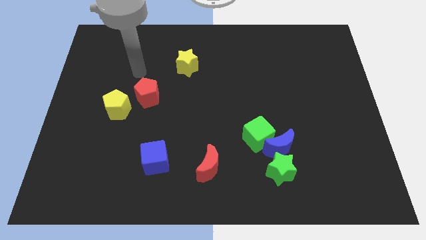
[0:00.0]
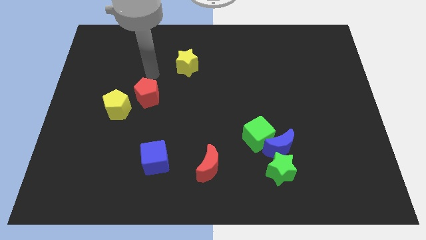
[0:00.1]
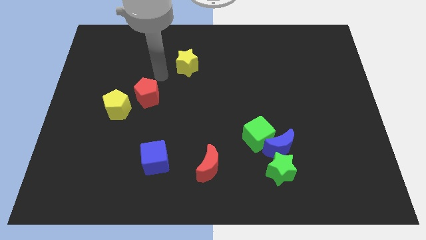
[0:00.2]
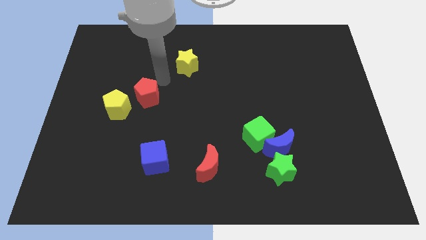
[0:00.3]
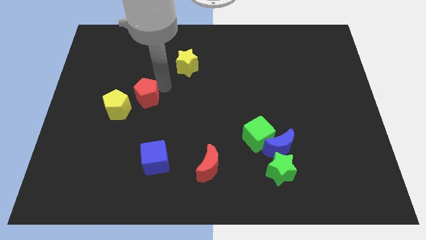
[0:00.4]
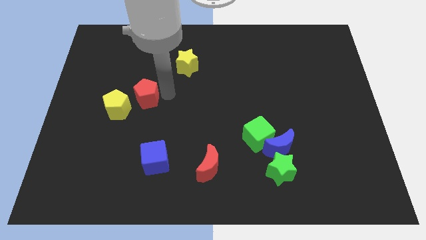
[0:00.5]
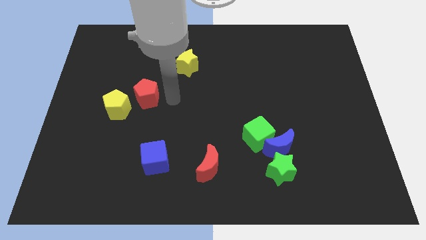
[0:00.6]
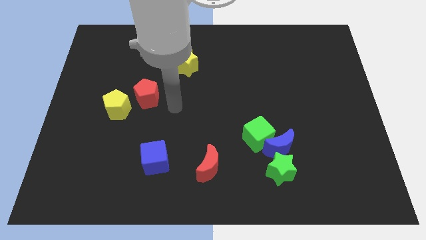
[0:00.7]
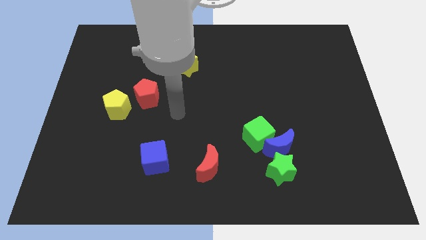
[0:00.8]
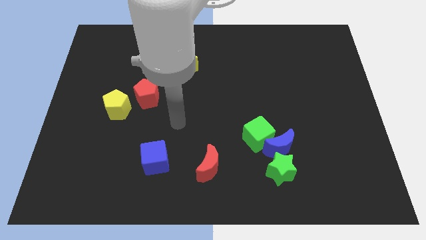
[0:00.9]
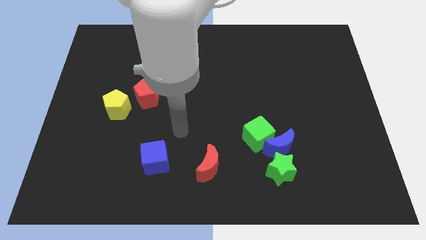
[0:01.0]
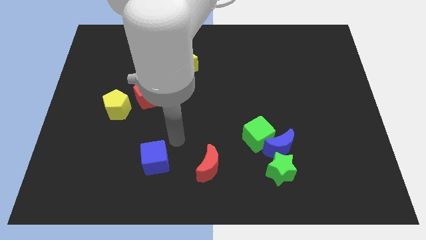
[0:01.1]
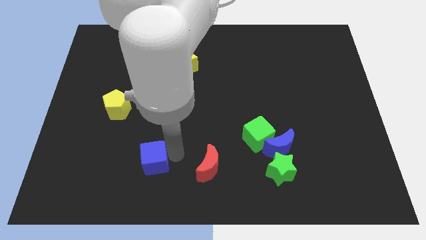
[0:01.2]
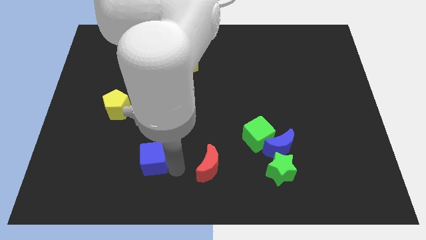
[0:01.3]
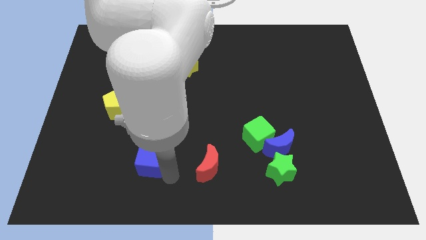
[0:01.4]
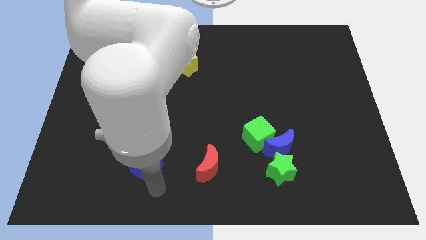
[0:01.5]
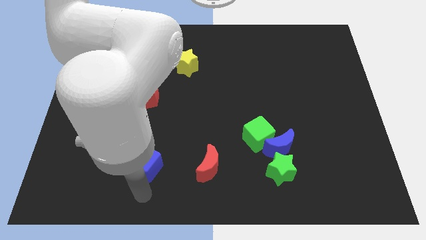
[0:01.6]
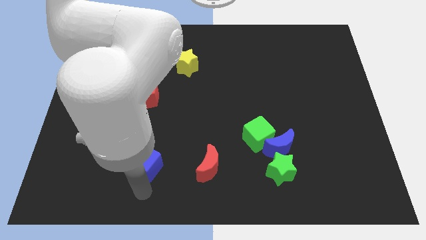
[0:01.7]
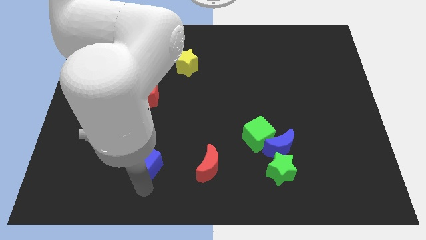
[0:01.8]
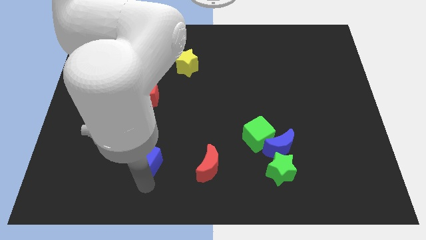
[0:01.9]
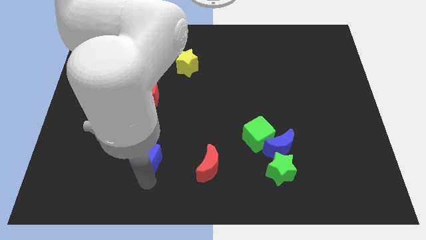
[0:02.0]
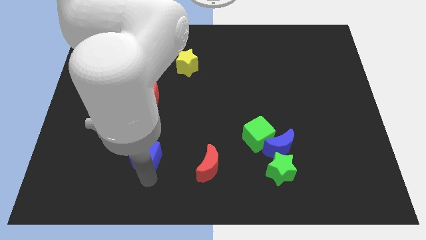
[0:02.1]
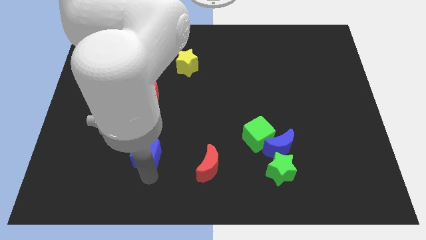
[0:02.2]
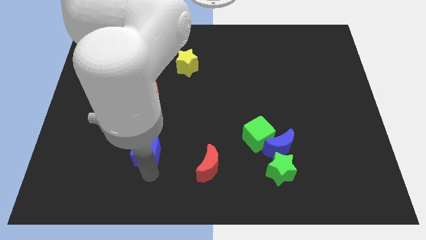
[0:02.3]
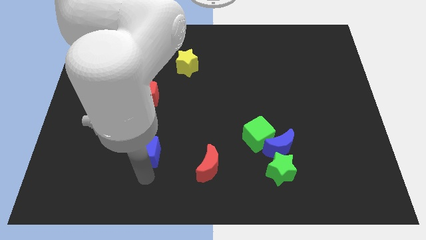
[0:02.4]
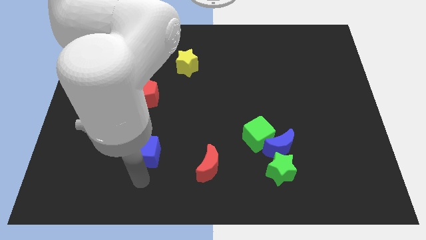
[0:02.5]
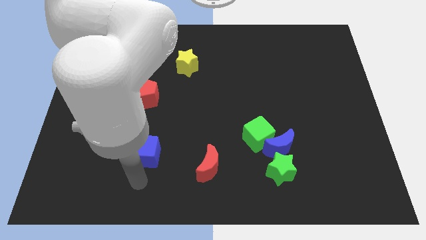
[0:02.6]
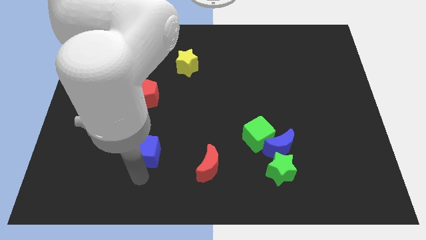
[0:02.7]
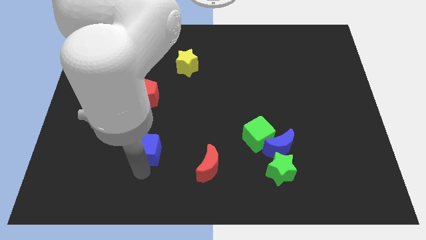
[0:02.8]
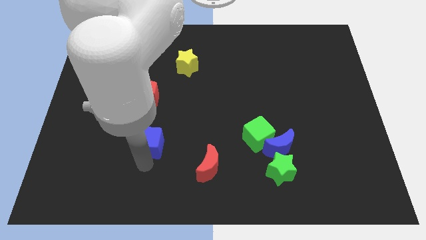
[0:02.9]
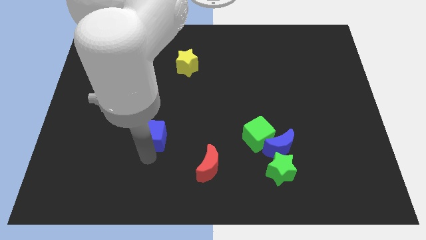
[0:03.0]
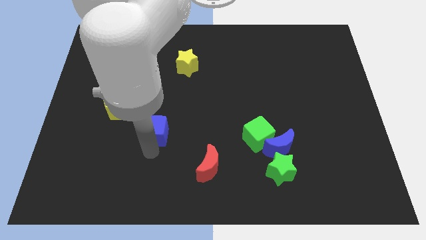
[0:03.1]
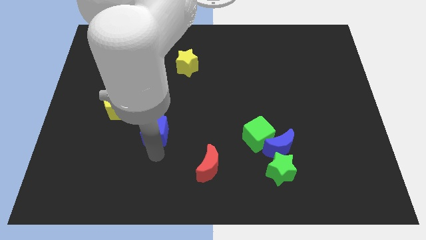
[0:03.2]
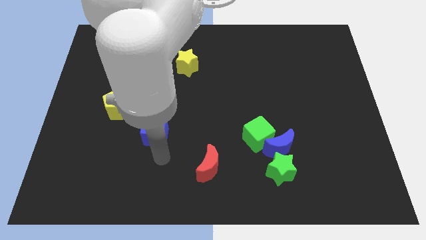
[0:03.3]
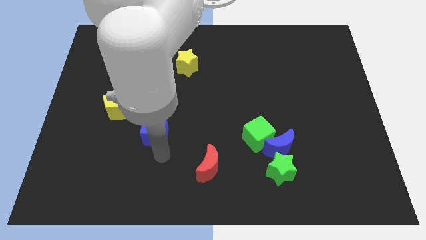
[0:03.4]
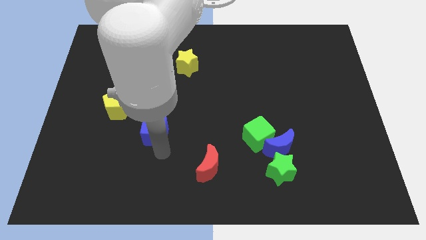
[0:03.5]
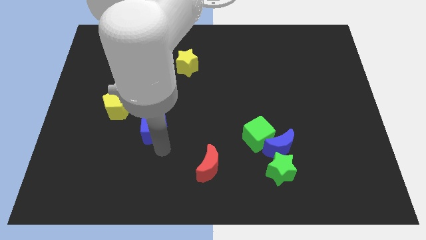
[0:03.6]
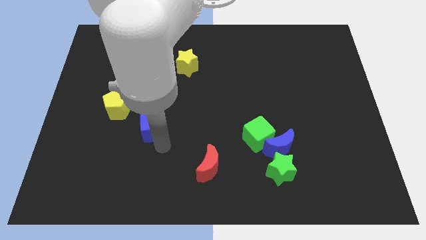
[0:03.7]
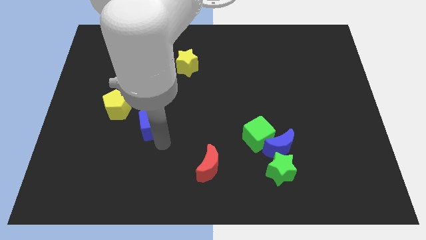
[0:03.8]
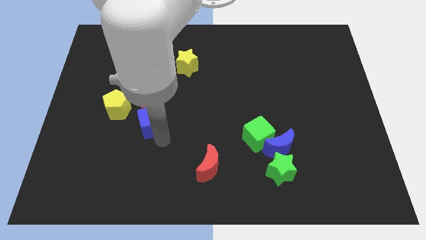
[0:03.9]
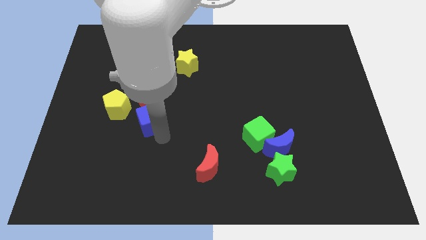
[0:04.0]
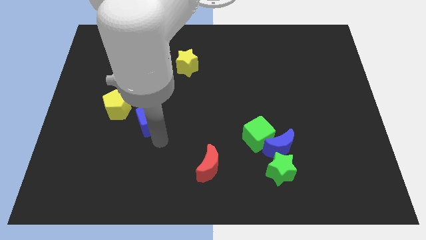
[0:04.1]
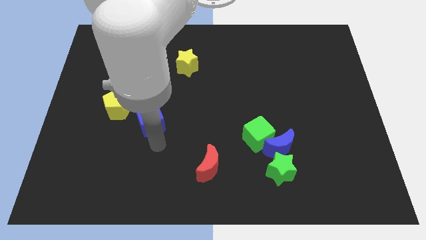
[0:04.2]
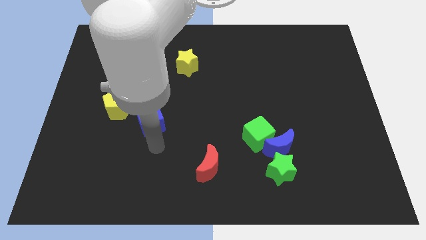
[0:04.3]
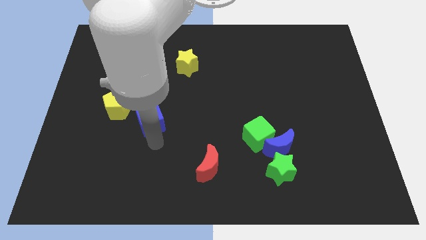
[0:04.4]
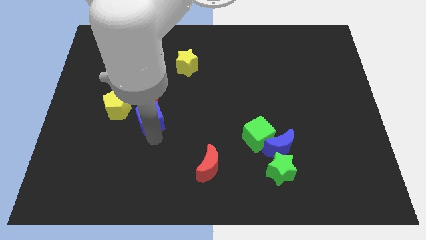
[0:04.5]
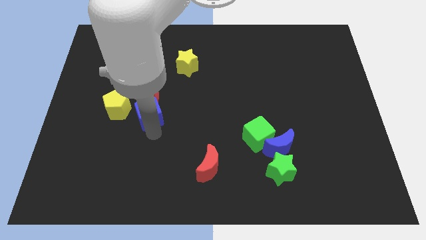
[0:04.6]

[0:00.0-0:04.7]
put the blue cube to the red pentagon

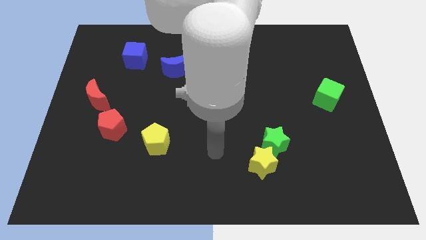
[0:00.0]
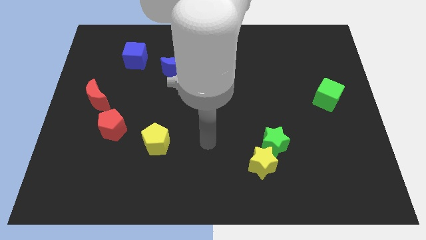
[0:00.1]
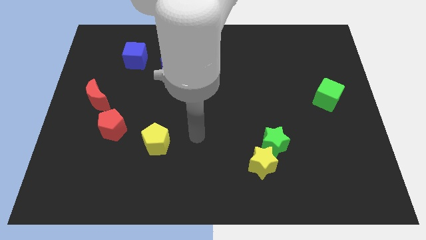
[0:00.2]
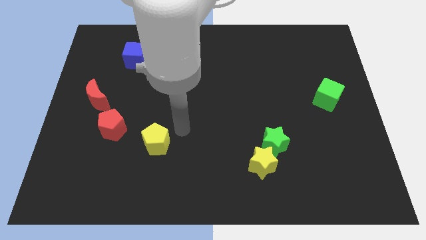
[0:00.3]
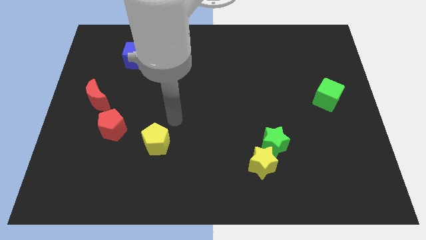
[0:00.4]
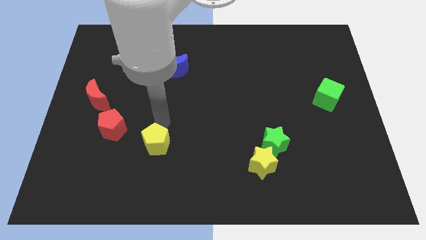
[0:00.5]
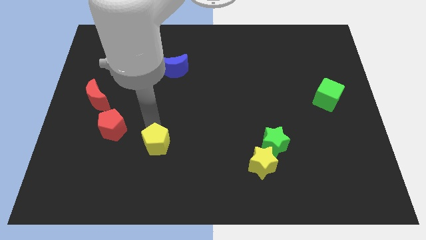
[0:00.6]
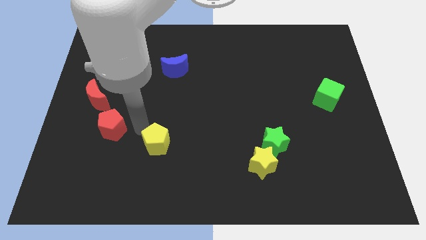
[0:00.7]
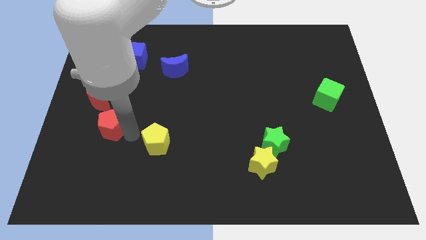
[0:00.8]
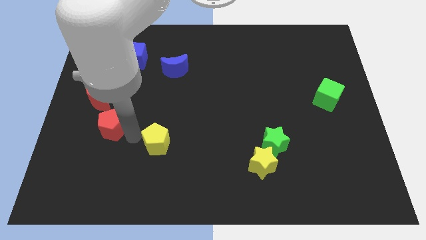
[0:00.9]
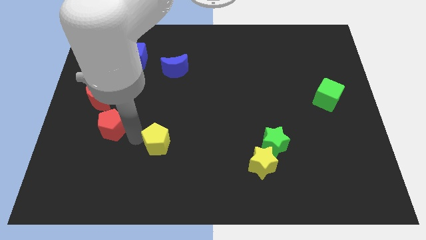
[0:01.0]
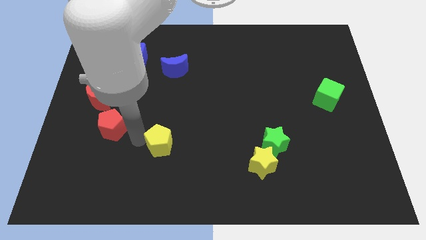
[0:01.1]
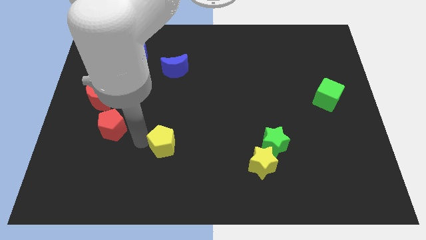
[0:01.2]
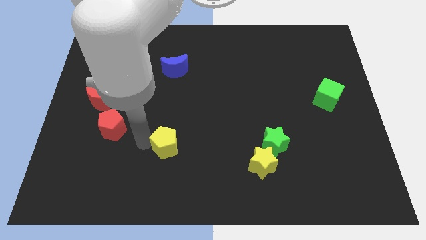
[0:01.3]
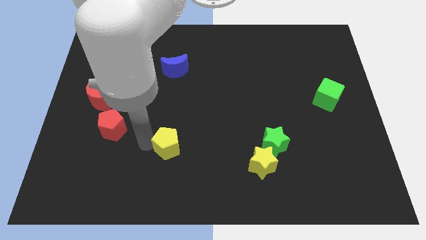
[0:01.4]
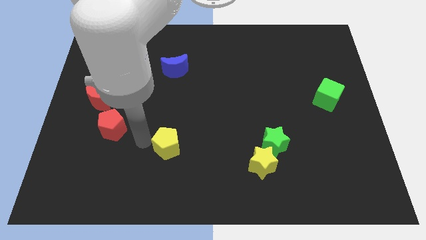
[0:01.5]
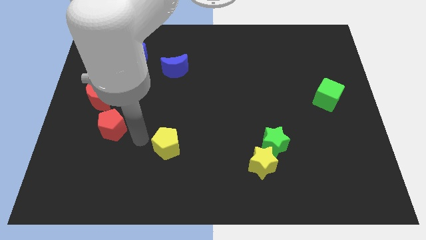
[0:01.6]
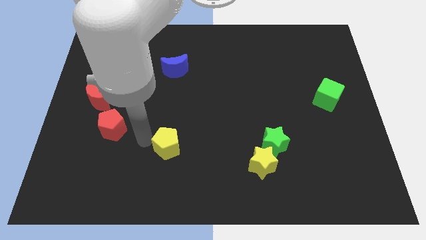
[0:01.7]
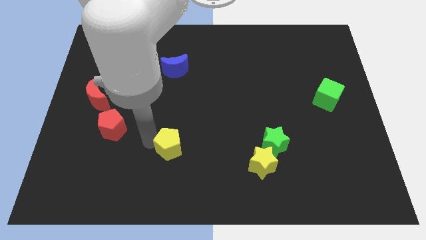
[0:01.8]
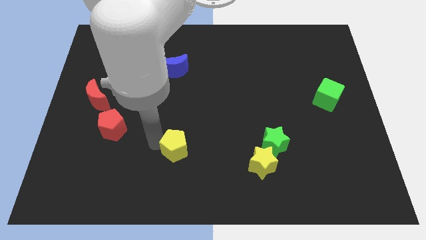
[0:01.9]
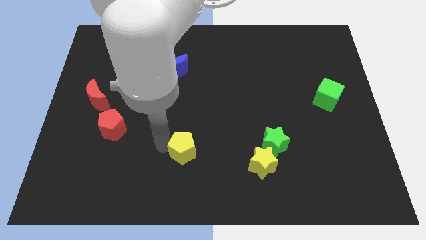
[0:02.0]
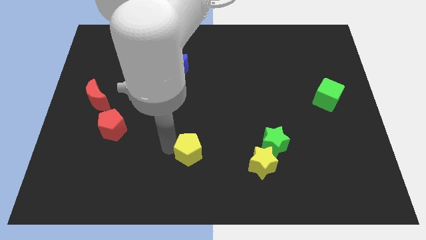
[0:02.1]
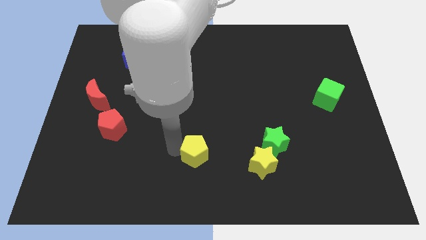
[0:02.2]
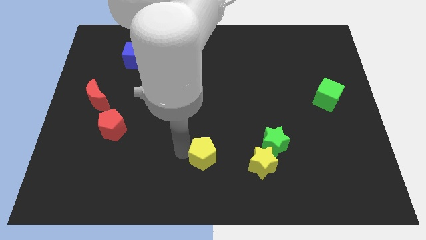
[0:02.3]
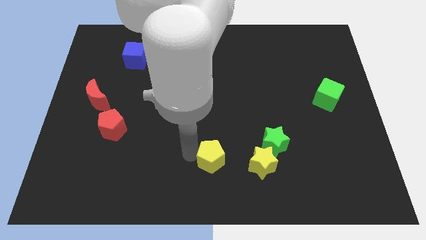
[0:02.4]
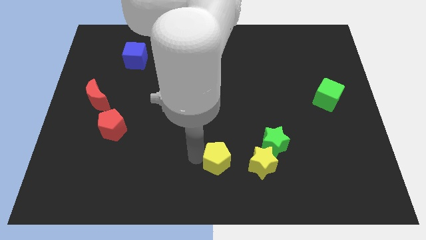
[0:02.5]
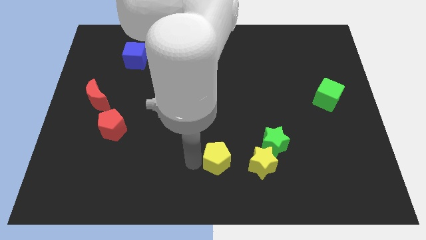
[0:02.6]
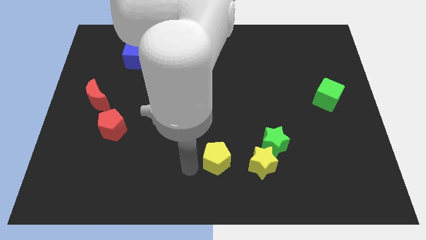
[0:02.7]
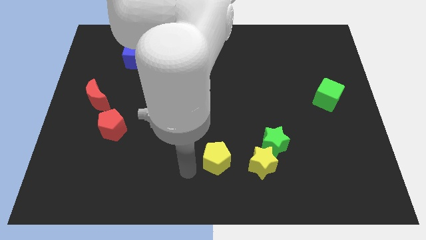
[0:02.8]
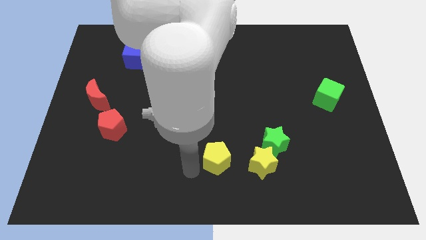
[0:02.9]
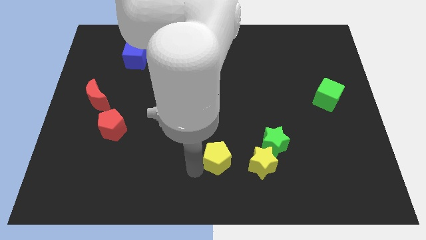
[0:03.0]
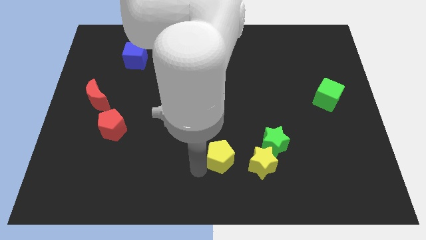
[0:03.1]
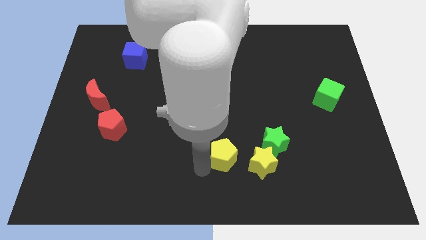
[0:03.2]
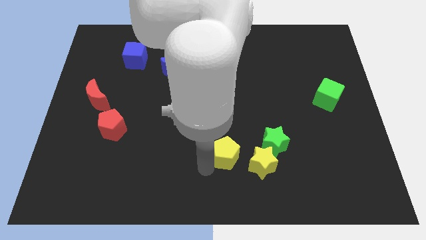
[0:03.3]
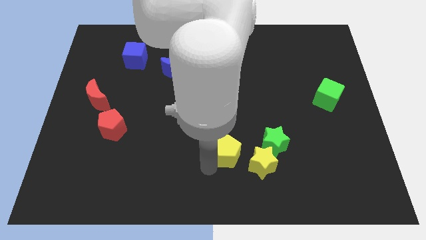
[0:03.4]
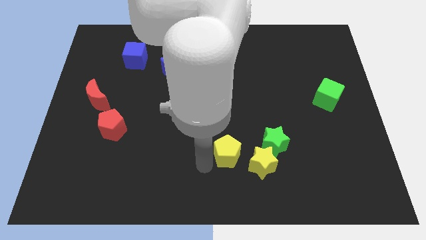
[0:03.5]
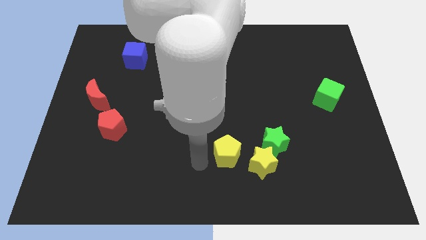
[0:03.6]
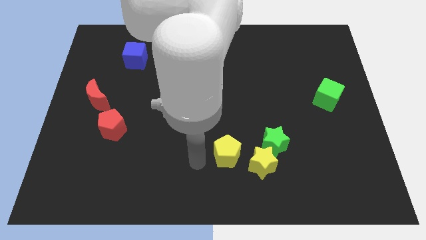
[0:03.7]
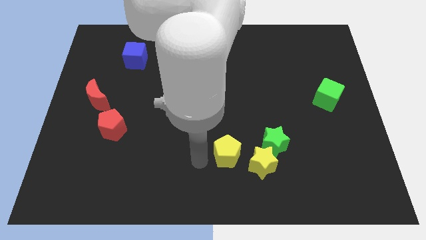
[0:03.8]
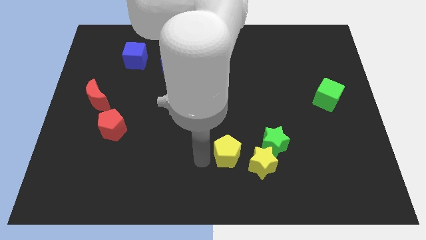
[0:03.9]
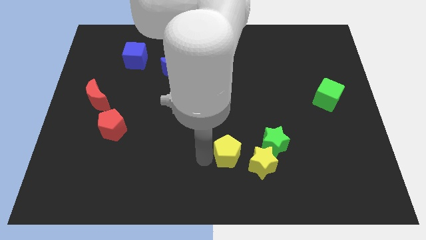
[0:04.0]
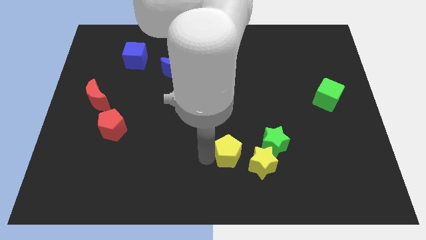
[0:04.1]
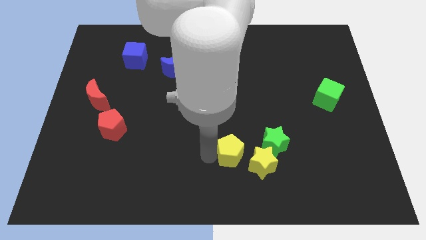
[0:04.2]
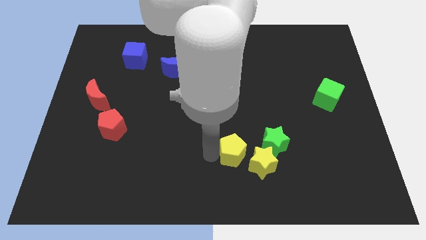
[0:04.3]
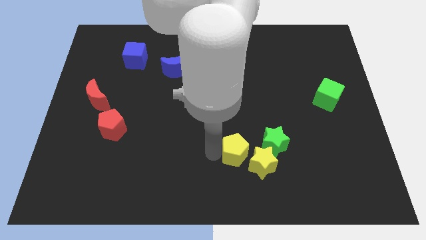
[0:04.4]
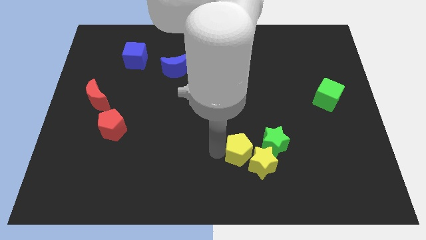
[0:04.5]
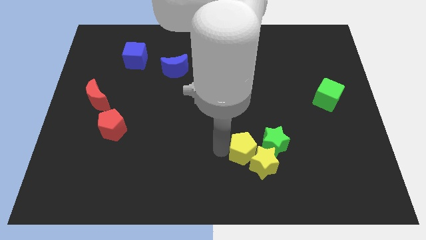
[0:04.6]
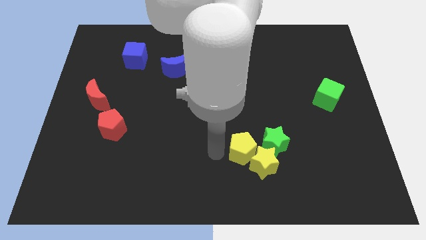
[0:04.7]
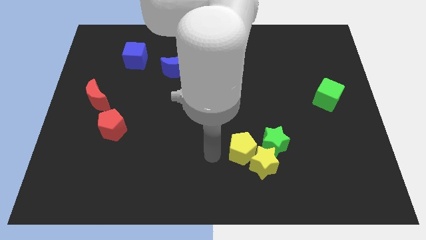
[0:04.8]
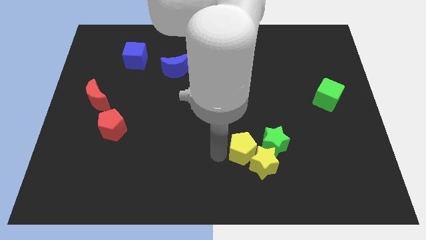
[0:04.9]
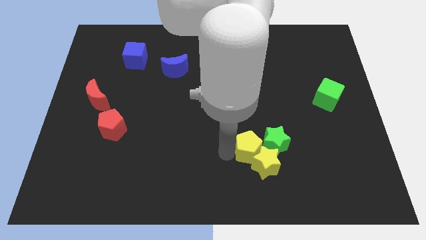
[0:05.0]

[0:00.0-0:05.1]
put the yellow pentagon next to the green star
